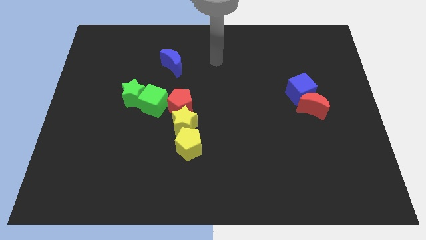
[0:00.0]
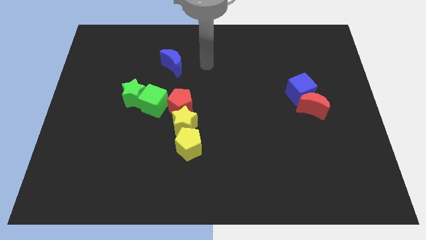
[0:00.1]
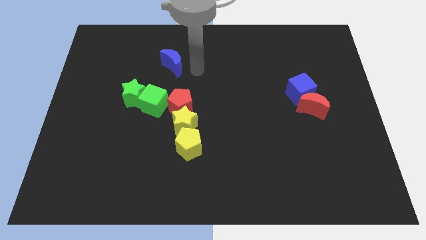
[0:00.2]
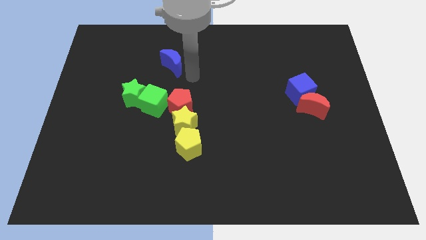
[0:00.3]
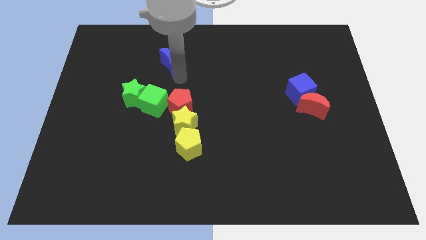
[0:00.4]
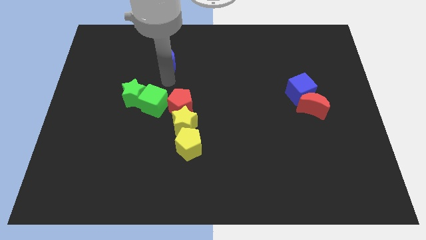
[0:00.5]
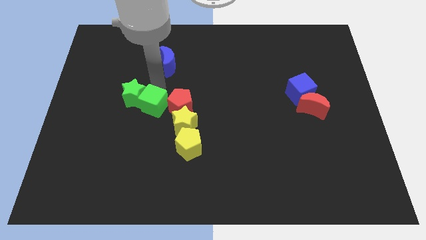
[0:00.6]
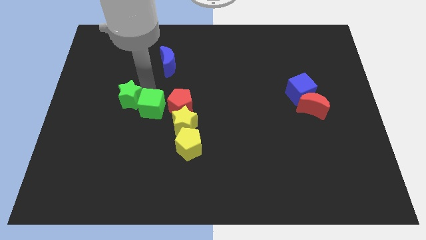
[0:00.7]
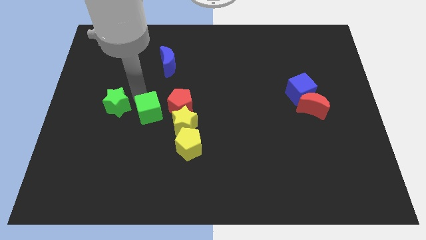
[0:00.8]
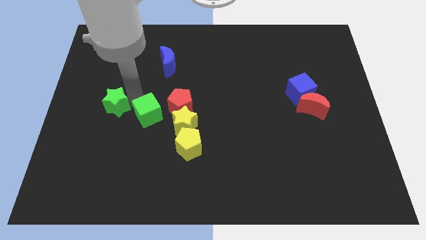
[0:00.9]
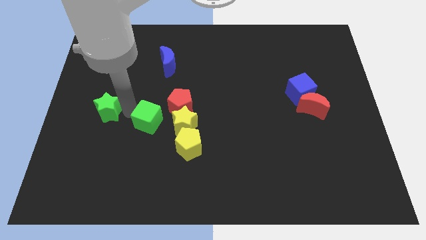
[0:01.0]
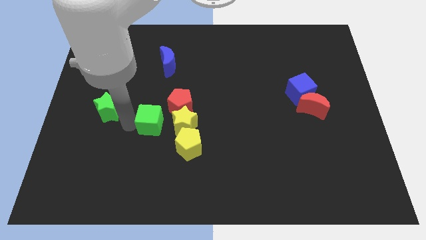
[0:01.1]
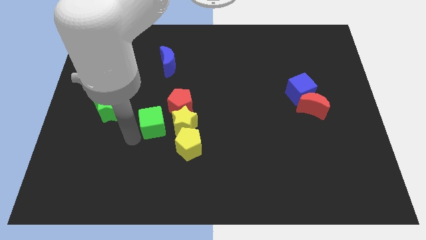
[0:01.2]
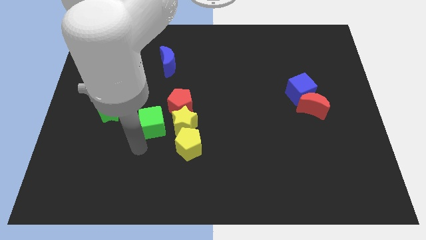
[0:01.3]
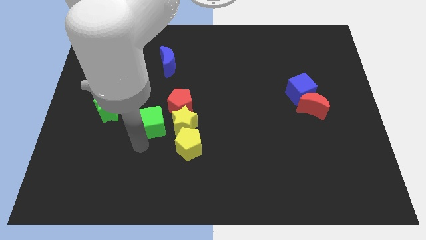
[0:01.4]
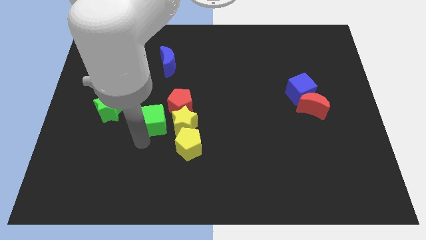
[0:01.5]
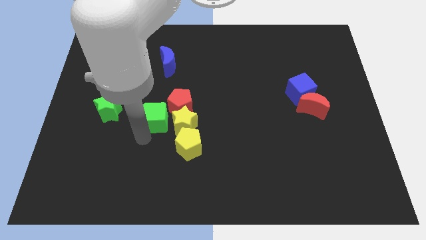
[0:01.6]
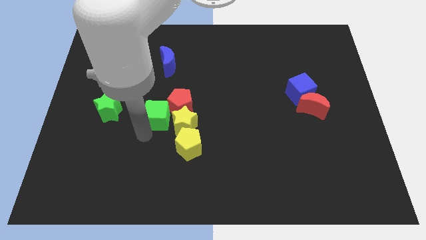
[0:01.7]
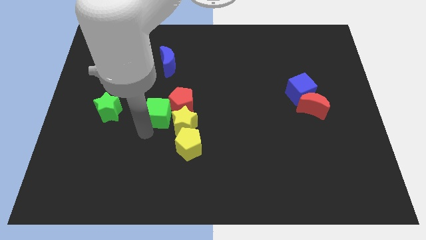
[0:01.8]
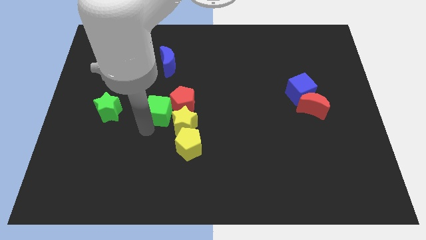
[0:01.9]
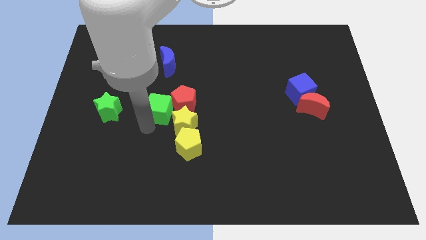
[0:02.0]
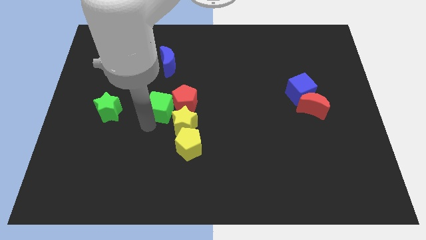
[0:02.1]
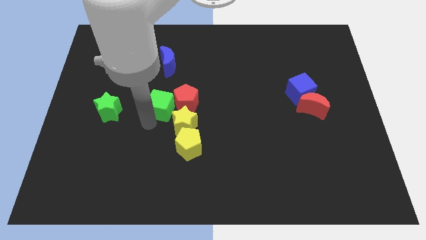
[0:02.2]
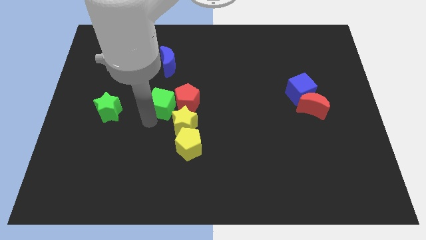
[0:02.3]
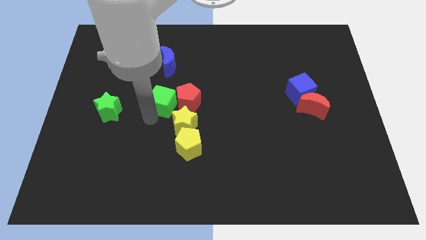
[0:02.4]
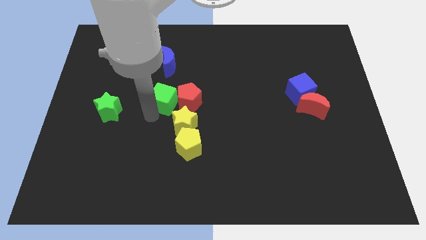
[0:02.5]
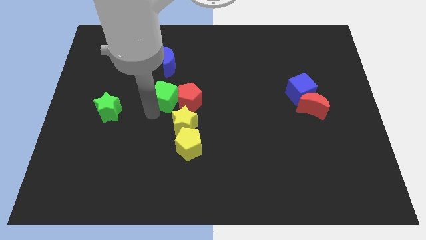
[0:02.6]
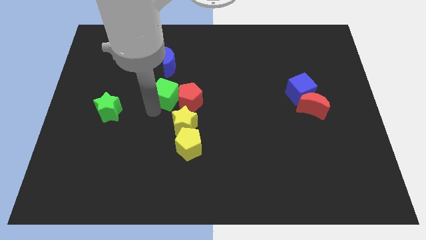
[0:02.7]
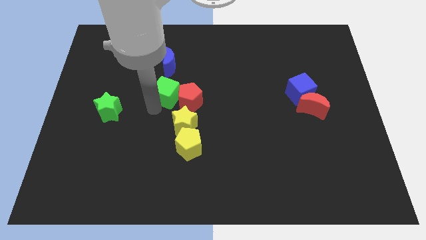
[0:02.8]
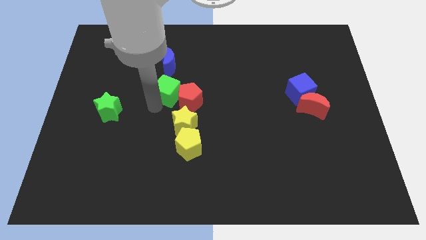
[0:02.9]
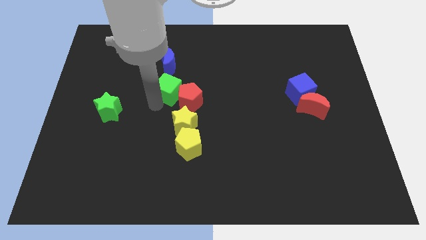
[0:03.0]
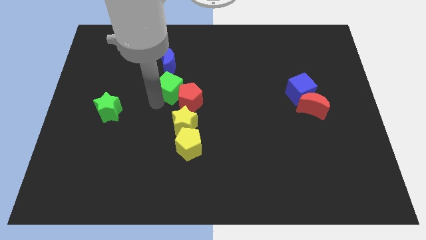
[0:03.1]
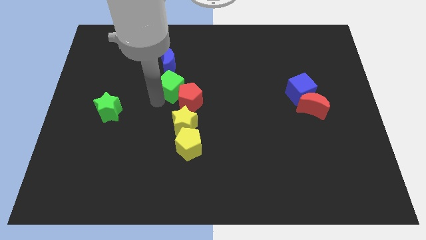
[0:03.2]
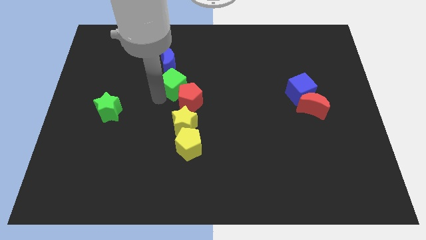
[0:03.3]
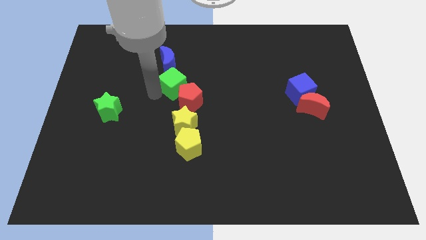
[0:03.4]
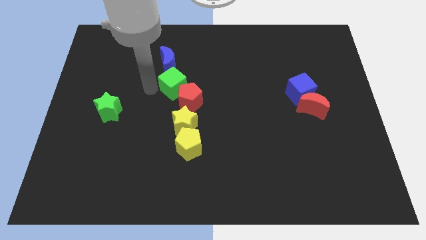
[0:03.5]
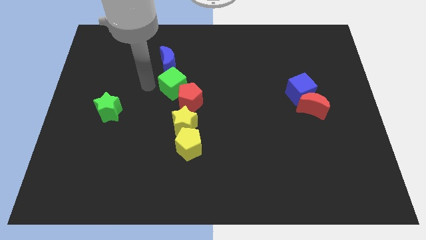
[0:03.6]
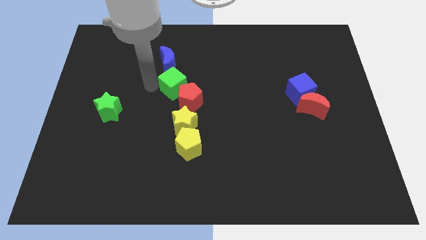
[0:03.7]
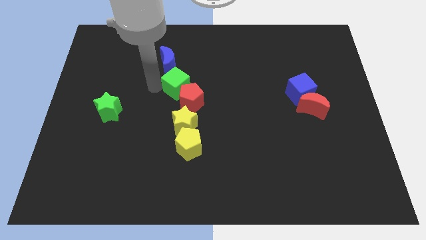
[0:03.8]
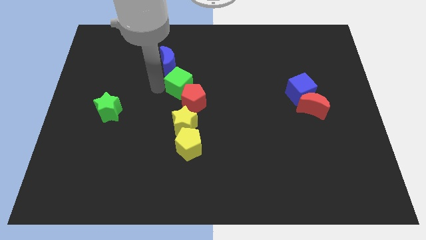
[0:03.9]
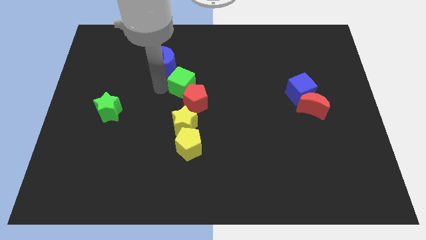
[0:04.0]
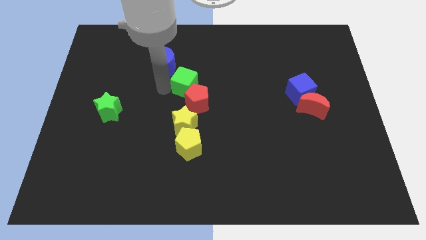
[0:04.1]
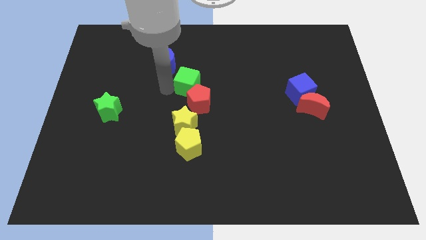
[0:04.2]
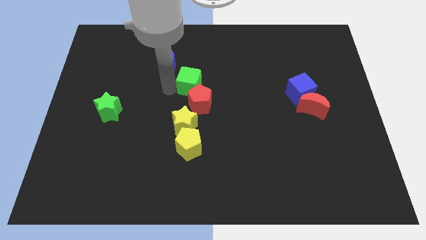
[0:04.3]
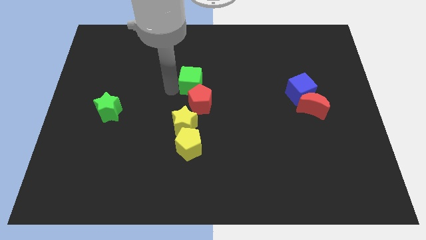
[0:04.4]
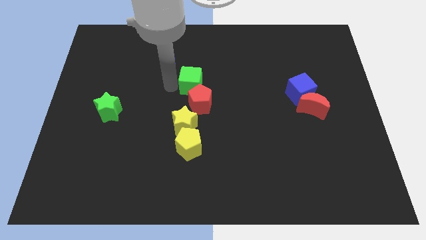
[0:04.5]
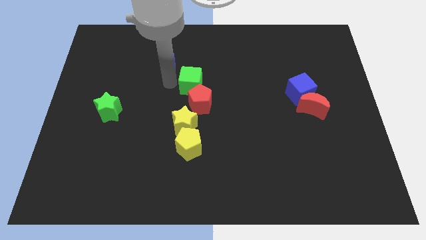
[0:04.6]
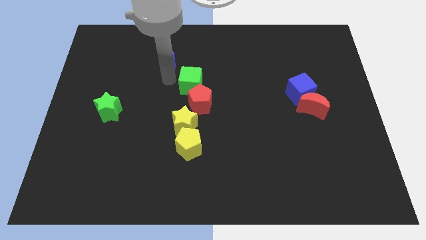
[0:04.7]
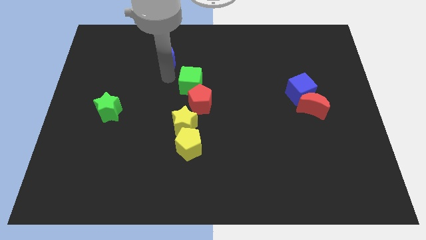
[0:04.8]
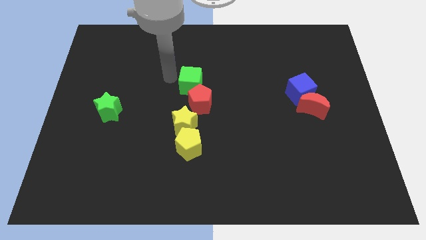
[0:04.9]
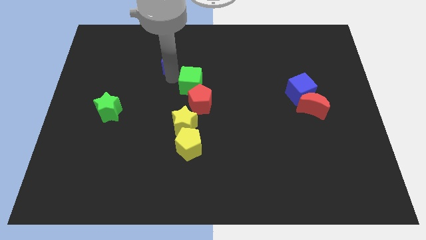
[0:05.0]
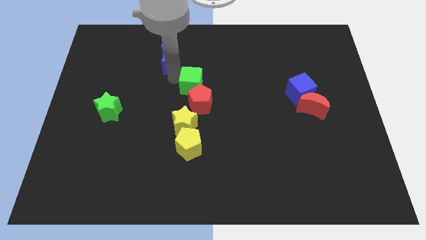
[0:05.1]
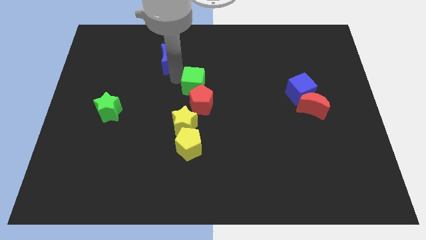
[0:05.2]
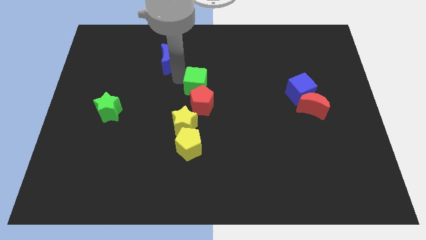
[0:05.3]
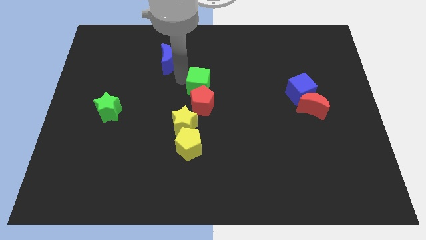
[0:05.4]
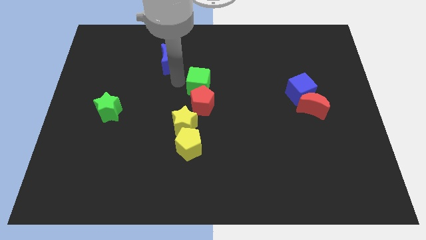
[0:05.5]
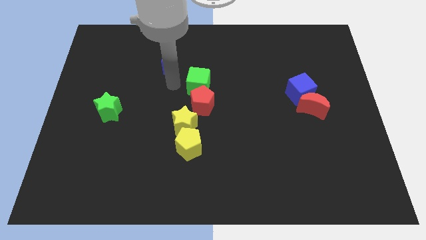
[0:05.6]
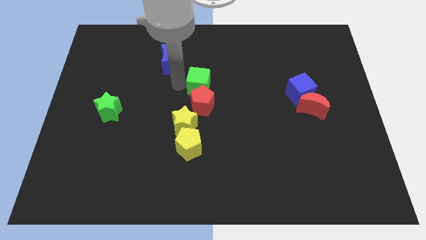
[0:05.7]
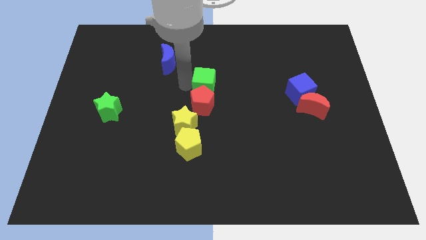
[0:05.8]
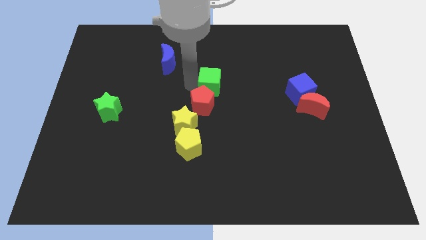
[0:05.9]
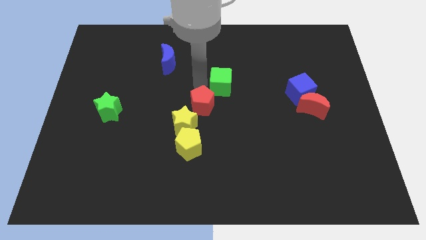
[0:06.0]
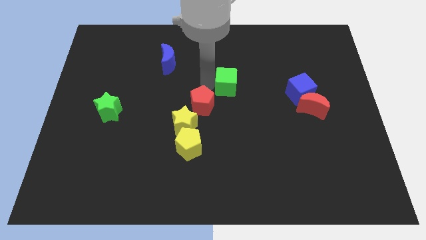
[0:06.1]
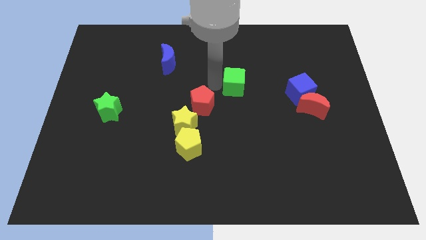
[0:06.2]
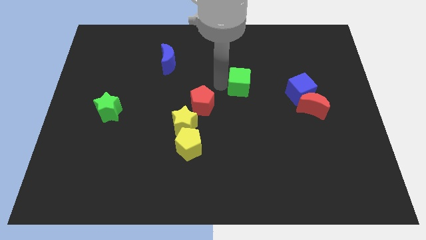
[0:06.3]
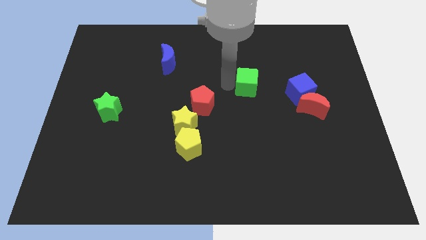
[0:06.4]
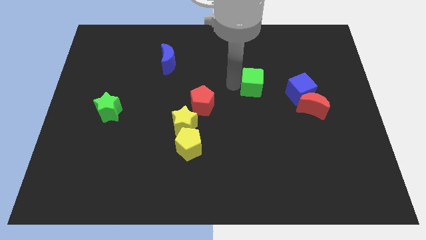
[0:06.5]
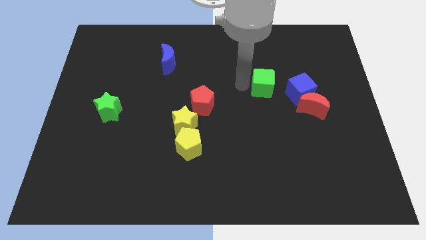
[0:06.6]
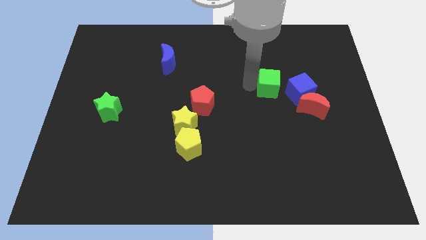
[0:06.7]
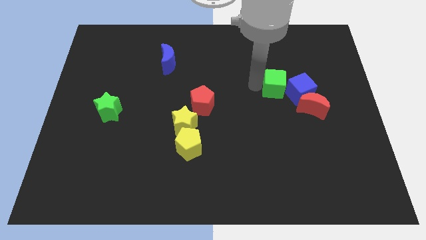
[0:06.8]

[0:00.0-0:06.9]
move the green cube to the blue cube

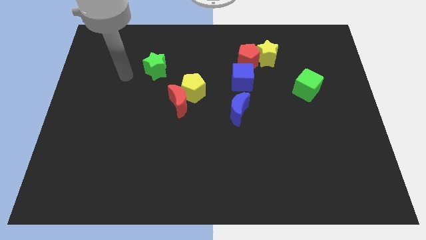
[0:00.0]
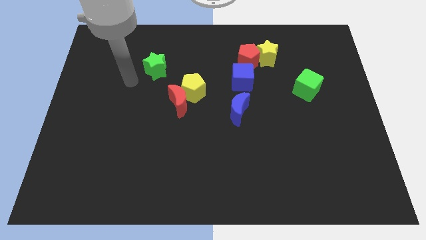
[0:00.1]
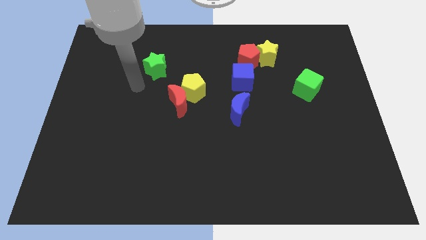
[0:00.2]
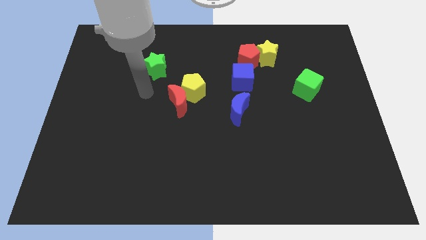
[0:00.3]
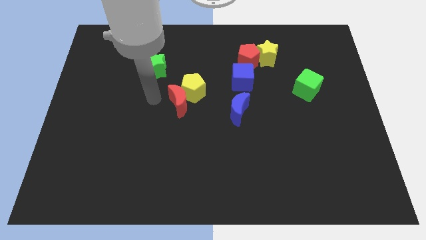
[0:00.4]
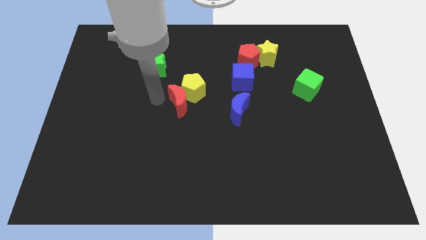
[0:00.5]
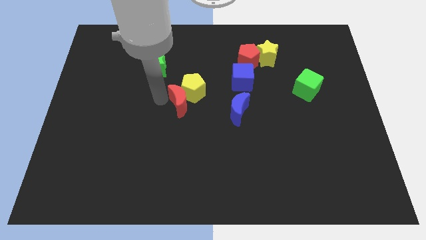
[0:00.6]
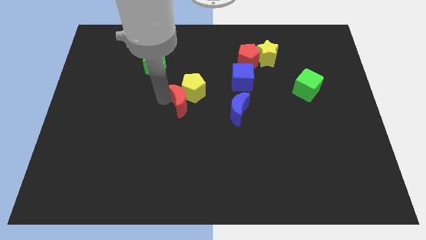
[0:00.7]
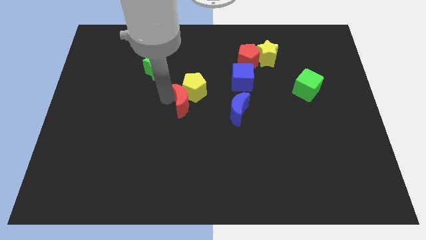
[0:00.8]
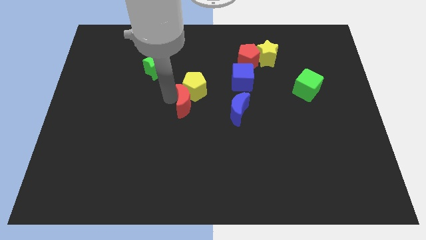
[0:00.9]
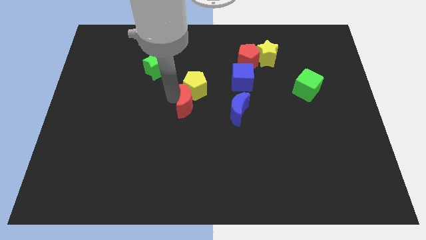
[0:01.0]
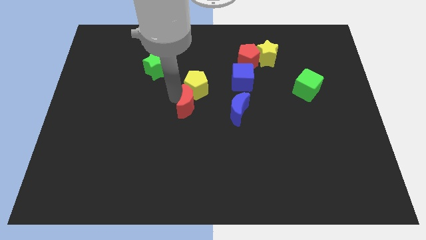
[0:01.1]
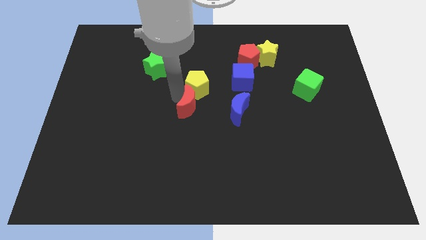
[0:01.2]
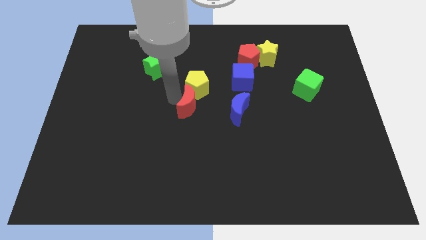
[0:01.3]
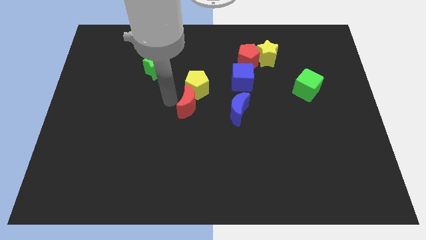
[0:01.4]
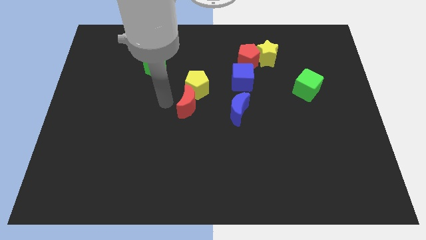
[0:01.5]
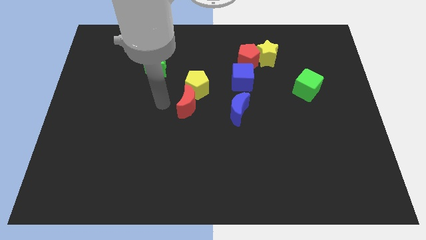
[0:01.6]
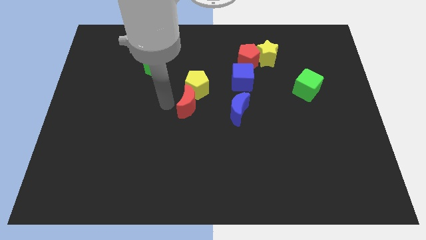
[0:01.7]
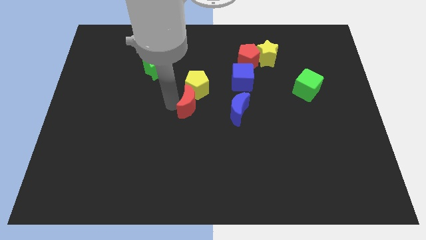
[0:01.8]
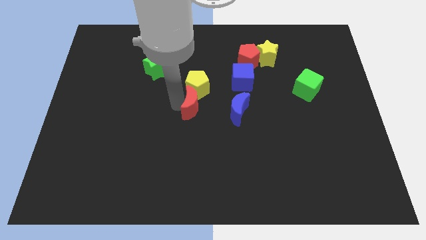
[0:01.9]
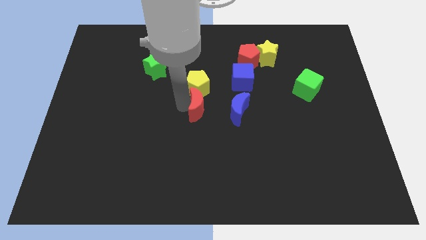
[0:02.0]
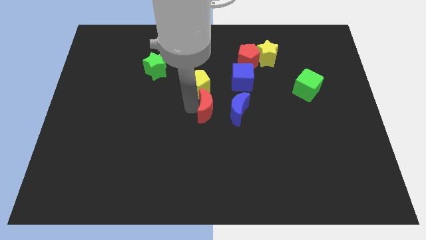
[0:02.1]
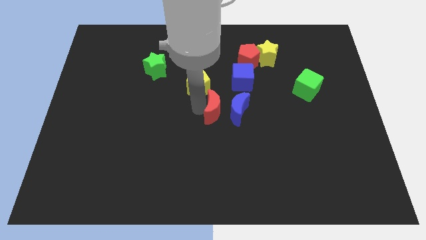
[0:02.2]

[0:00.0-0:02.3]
slide the red moon towards the blue moon
